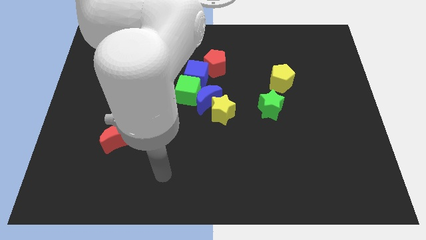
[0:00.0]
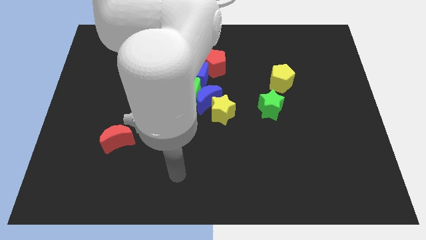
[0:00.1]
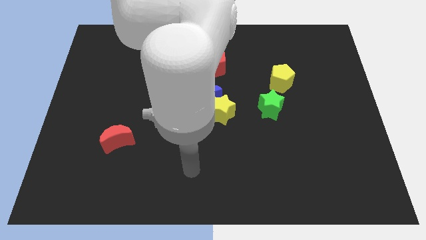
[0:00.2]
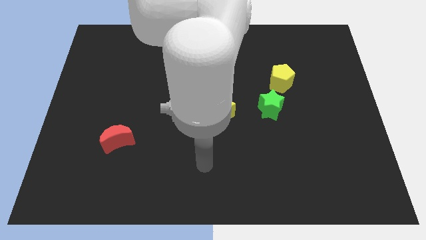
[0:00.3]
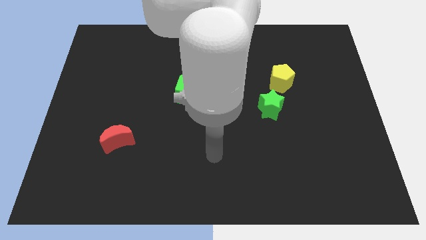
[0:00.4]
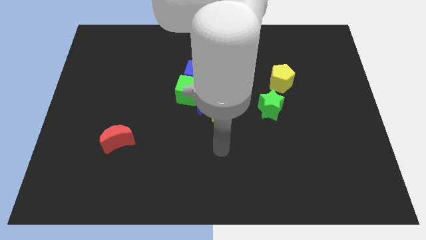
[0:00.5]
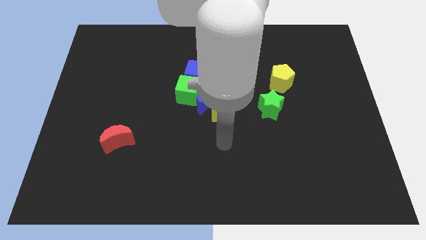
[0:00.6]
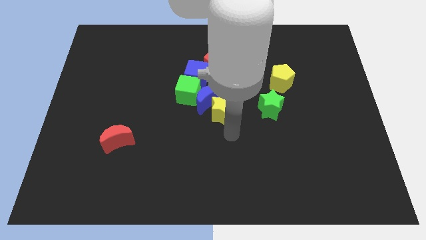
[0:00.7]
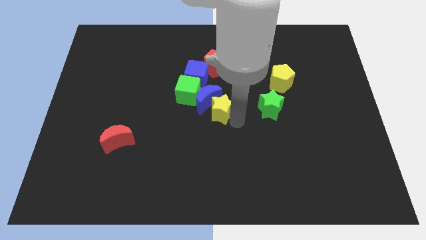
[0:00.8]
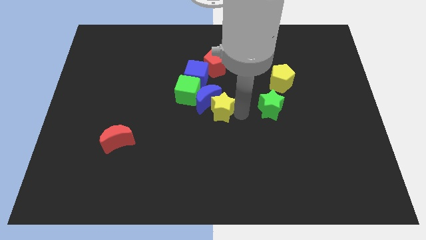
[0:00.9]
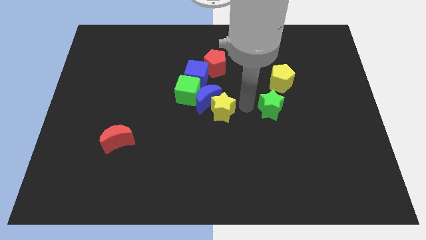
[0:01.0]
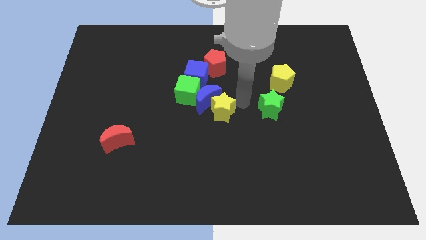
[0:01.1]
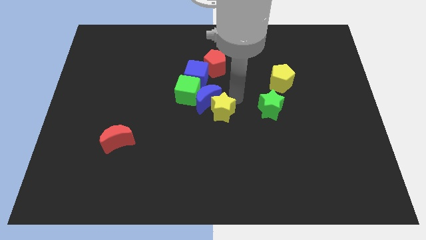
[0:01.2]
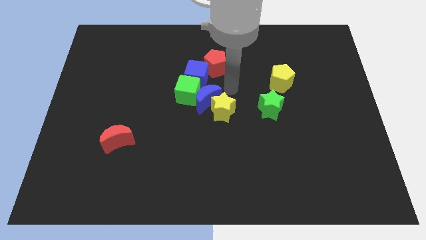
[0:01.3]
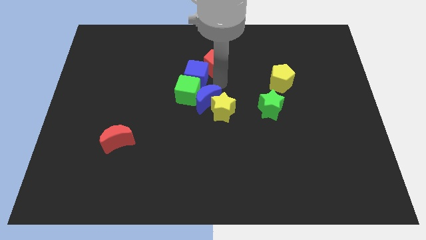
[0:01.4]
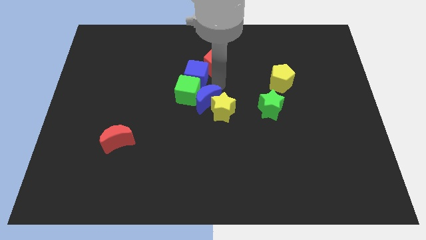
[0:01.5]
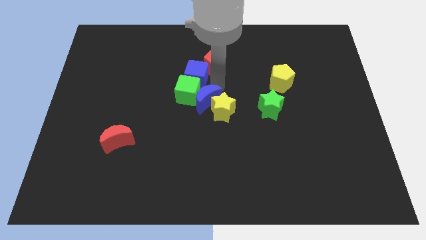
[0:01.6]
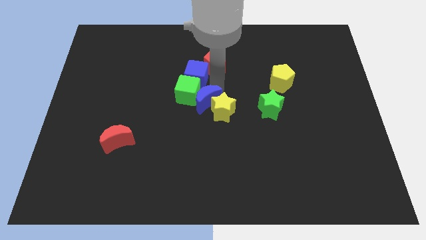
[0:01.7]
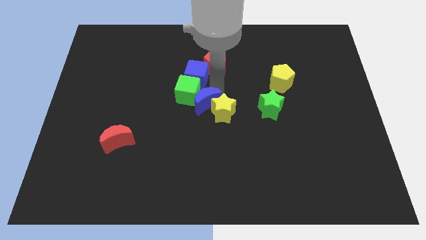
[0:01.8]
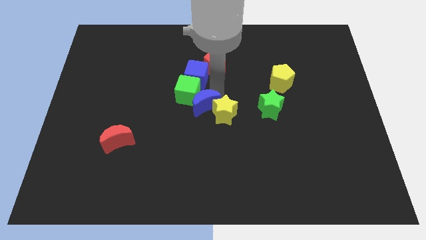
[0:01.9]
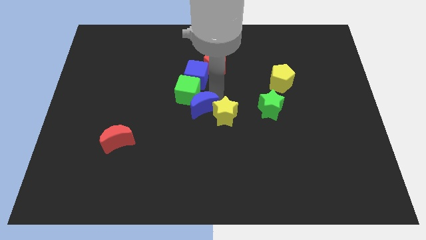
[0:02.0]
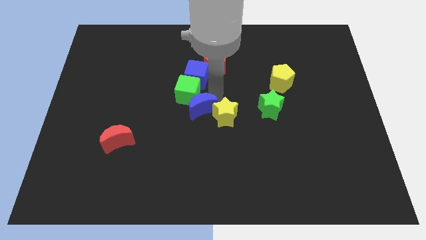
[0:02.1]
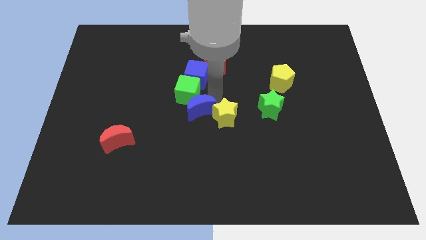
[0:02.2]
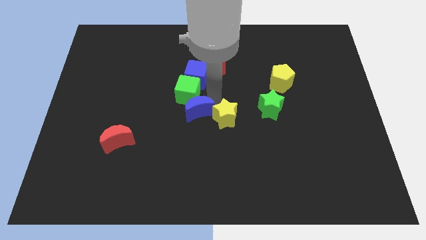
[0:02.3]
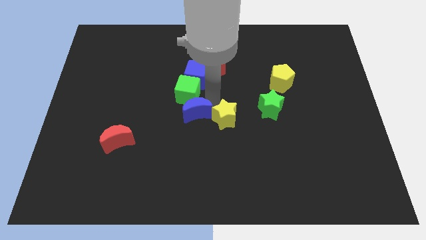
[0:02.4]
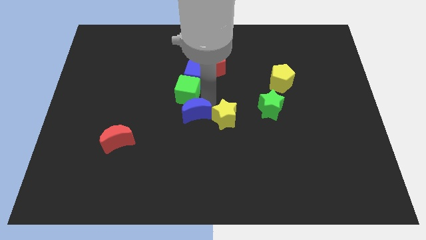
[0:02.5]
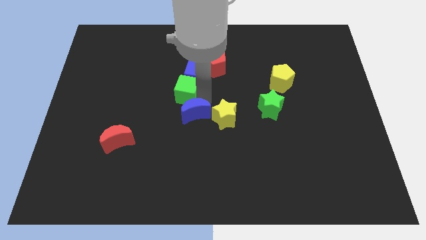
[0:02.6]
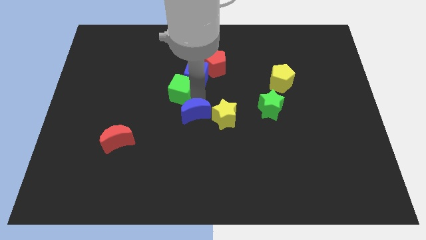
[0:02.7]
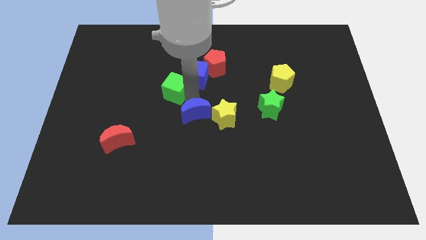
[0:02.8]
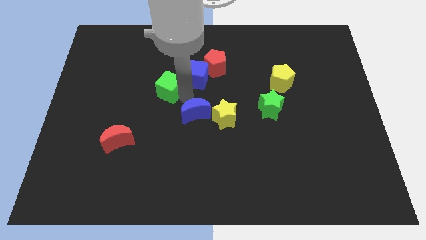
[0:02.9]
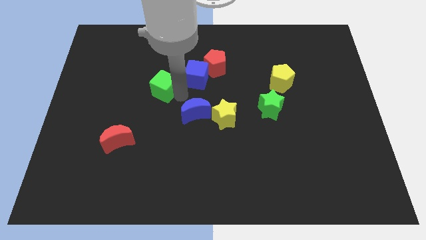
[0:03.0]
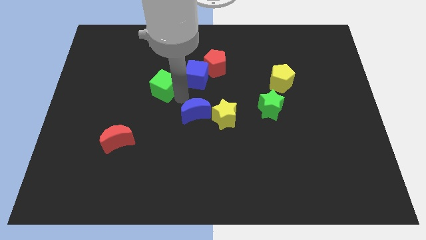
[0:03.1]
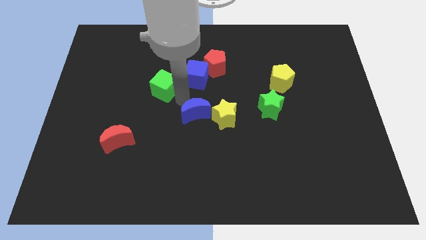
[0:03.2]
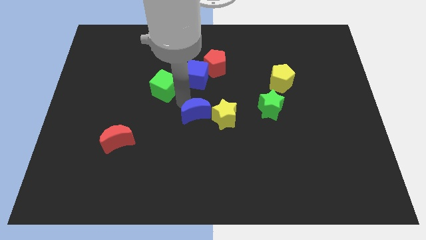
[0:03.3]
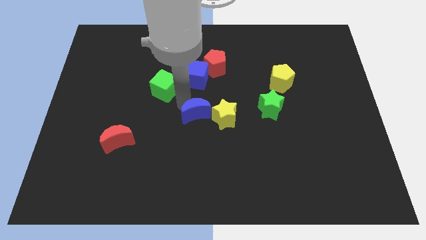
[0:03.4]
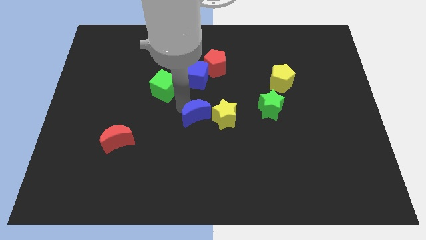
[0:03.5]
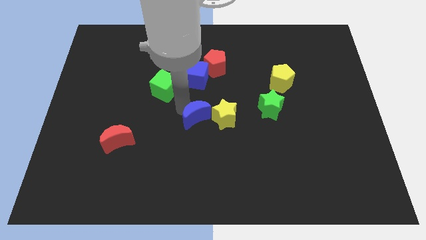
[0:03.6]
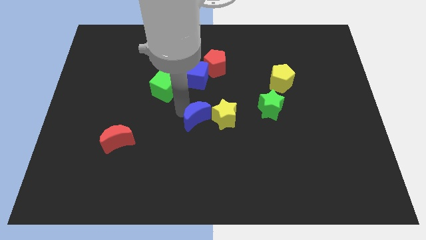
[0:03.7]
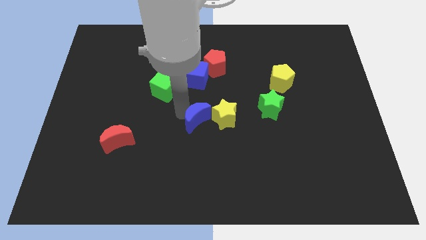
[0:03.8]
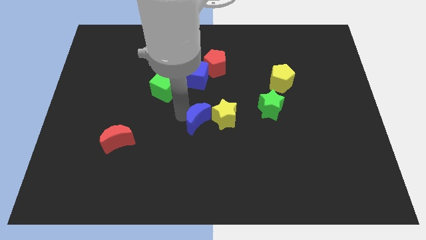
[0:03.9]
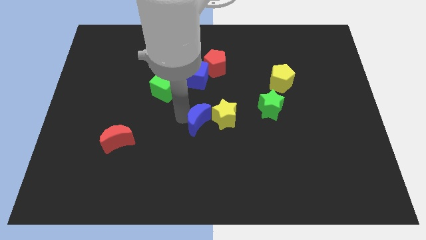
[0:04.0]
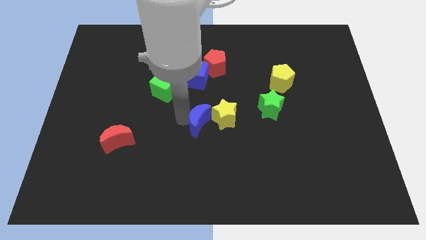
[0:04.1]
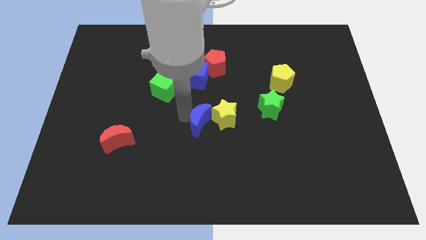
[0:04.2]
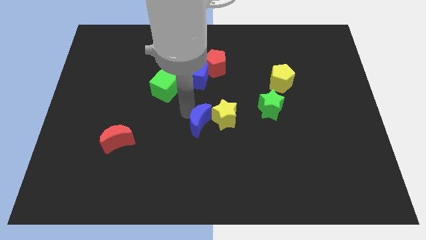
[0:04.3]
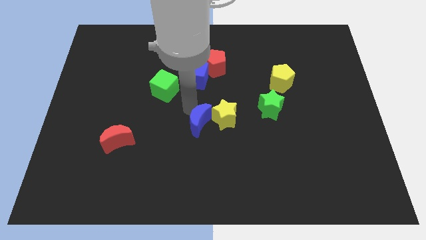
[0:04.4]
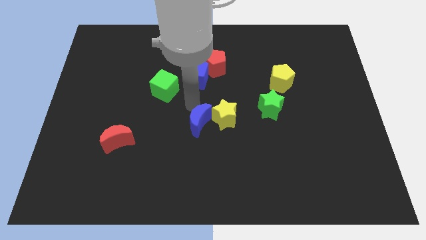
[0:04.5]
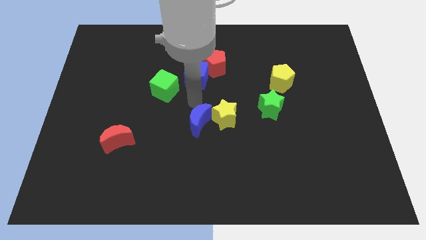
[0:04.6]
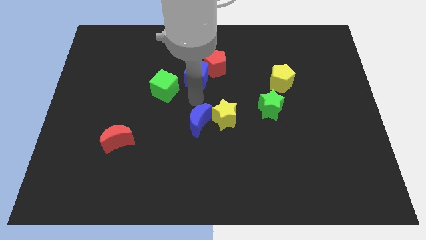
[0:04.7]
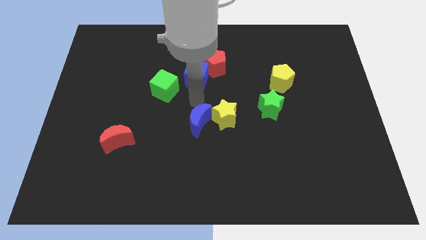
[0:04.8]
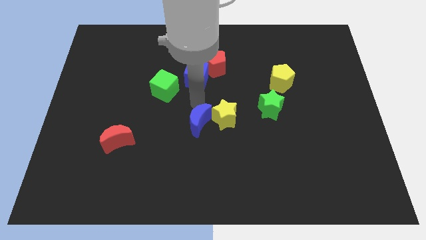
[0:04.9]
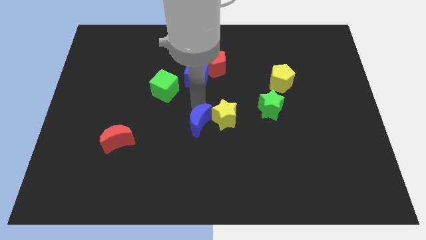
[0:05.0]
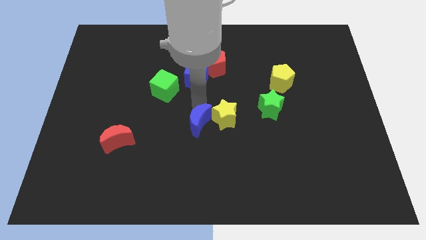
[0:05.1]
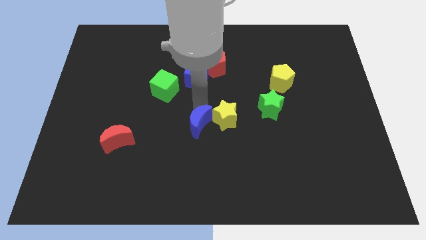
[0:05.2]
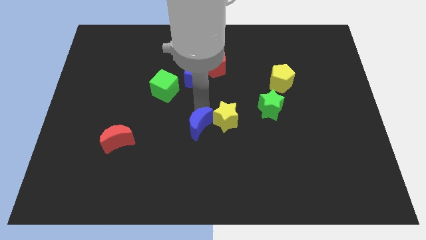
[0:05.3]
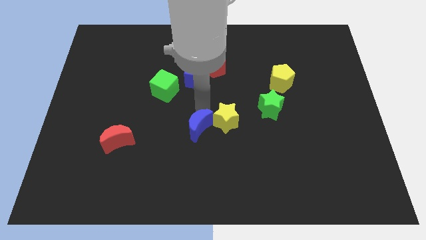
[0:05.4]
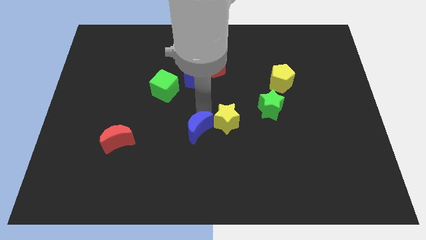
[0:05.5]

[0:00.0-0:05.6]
move the blue moon away from the group of blocks

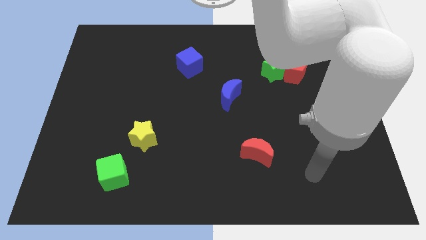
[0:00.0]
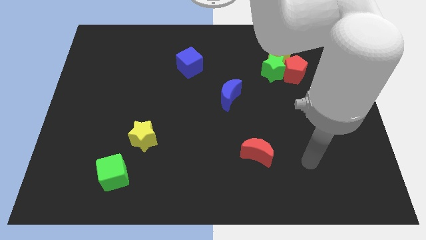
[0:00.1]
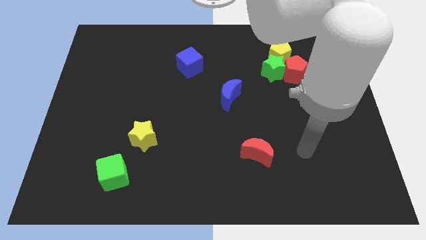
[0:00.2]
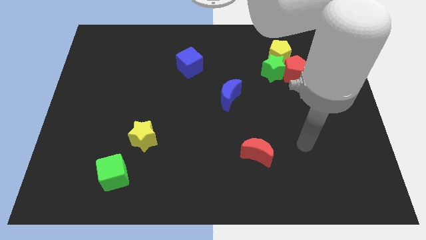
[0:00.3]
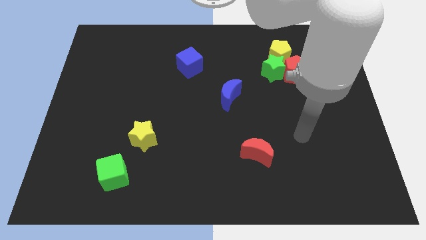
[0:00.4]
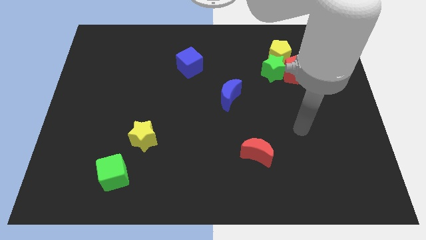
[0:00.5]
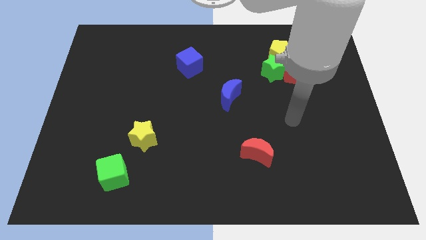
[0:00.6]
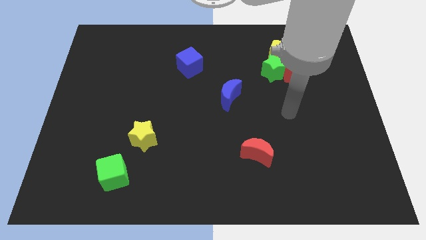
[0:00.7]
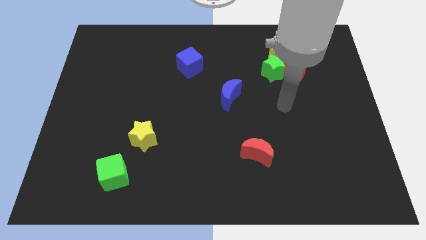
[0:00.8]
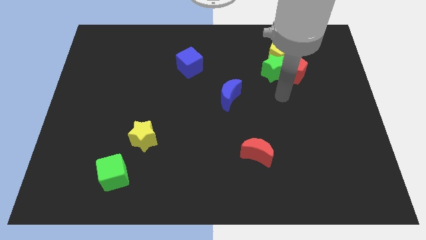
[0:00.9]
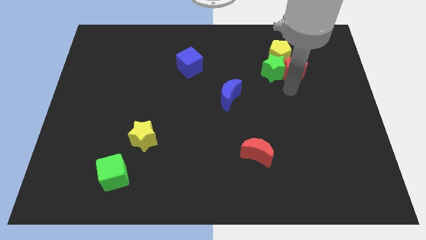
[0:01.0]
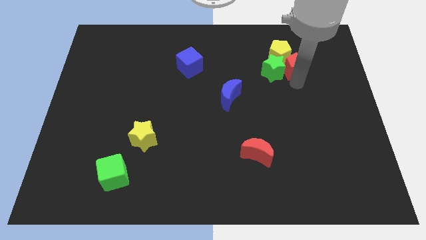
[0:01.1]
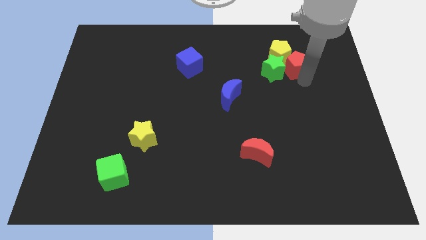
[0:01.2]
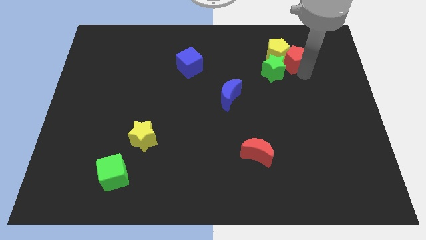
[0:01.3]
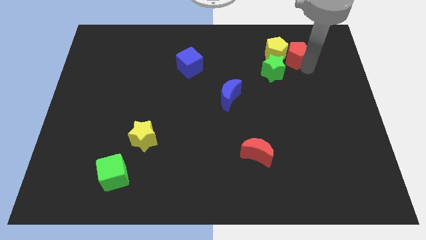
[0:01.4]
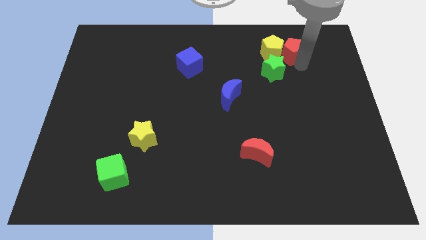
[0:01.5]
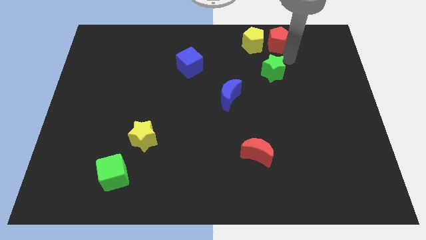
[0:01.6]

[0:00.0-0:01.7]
move the green star away from the red pentagon and yellow pentagon

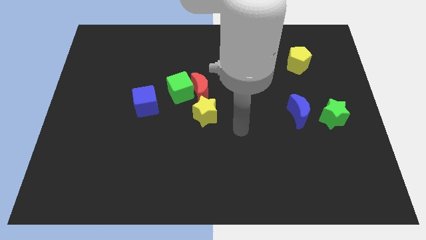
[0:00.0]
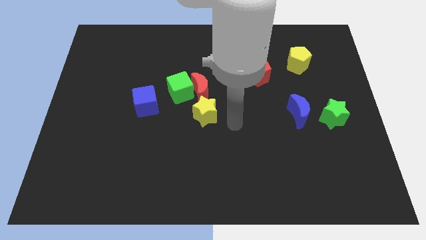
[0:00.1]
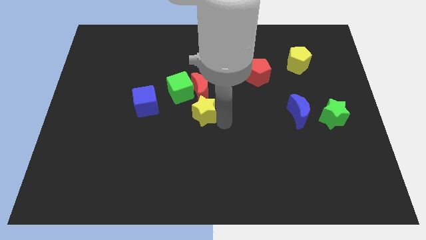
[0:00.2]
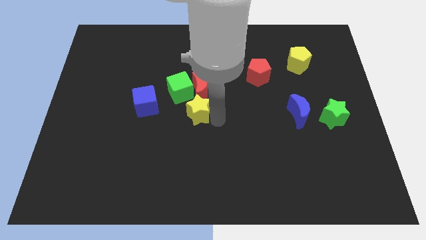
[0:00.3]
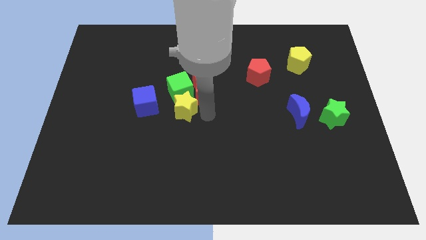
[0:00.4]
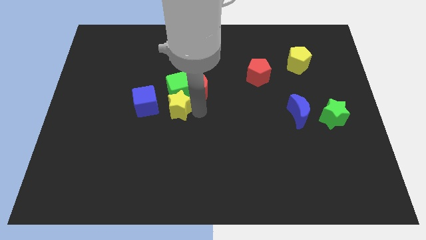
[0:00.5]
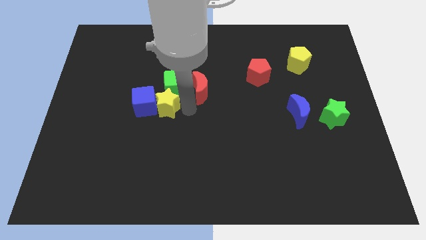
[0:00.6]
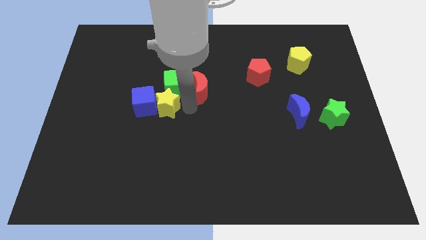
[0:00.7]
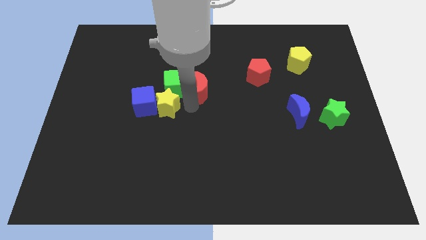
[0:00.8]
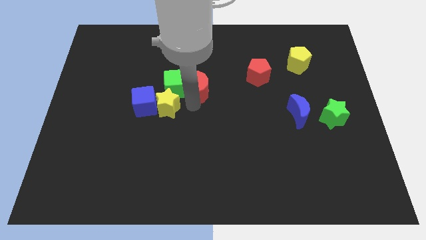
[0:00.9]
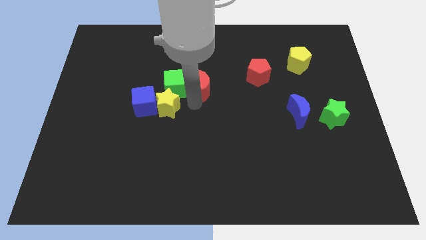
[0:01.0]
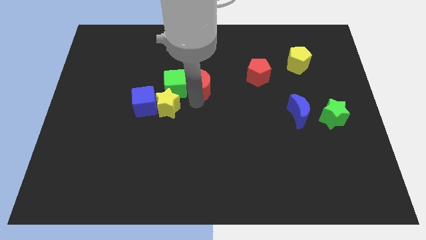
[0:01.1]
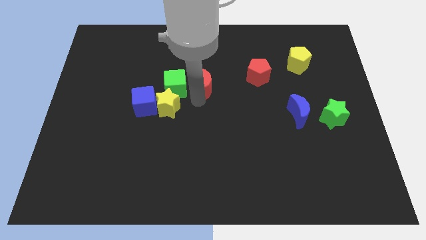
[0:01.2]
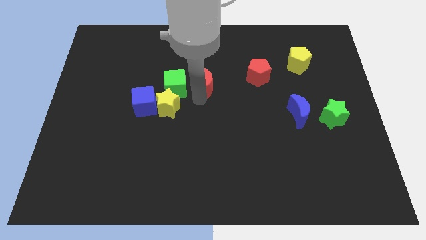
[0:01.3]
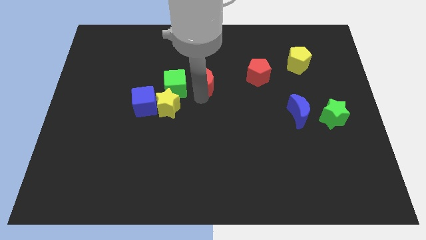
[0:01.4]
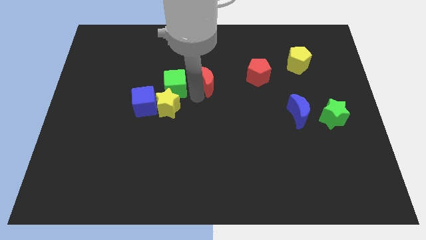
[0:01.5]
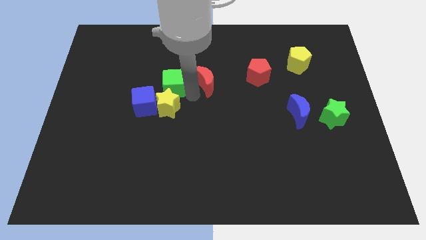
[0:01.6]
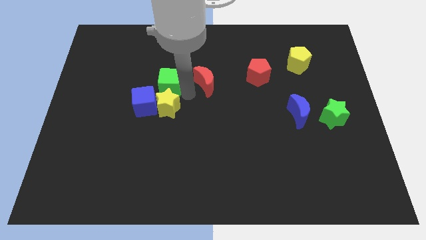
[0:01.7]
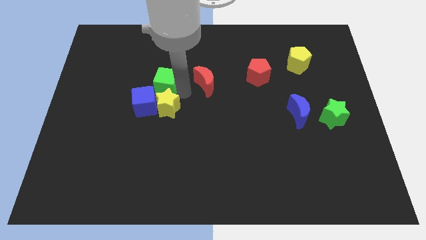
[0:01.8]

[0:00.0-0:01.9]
move the red moon away from the green cube and yellow star

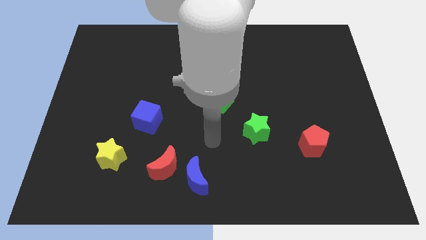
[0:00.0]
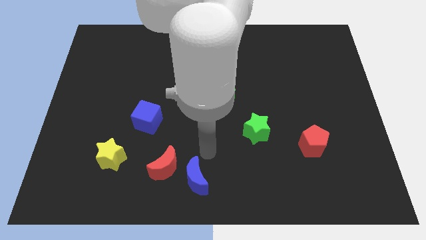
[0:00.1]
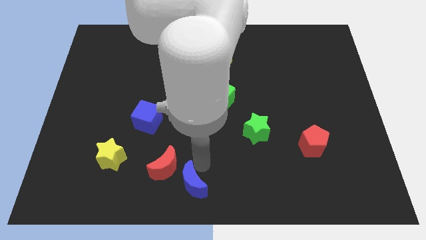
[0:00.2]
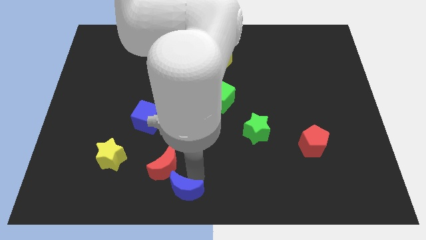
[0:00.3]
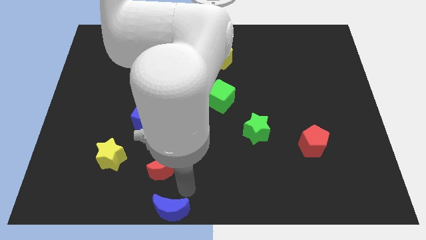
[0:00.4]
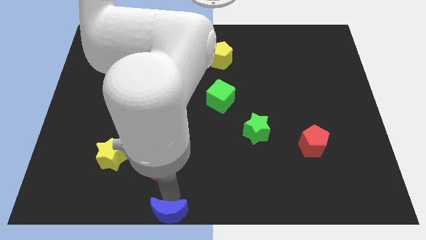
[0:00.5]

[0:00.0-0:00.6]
pull the red moon apart from the blue moon
